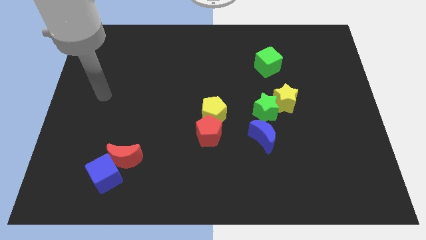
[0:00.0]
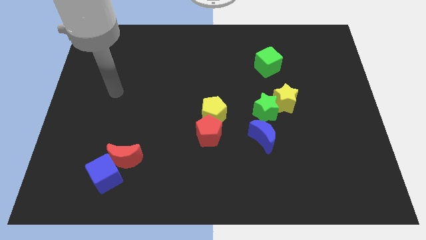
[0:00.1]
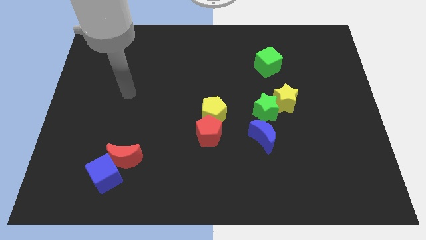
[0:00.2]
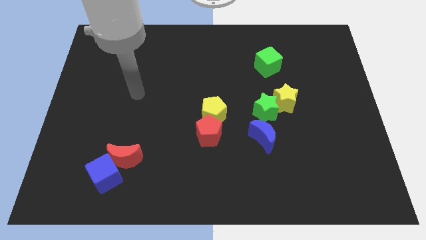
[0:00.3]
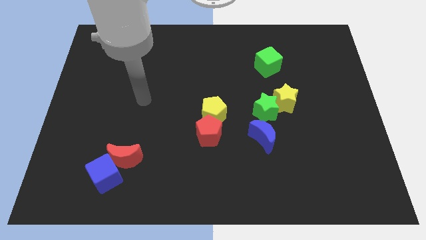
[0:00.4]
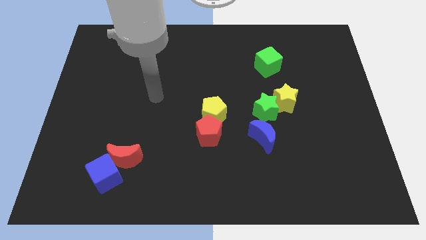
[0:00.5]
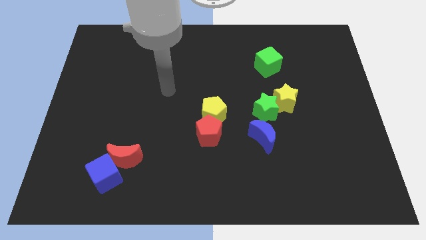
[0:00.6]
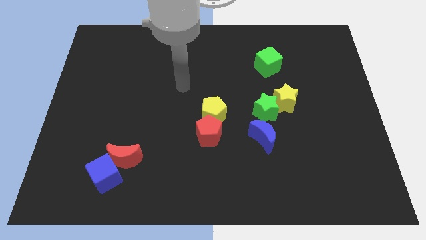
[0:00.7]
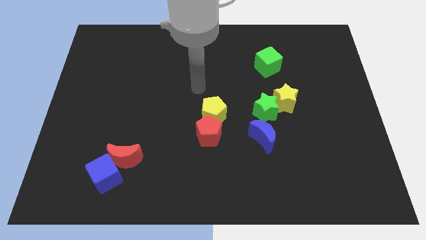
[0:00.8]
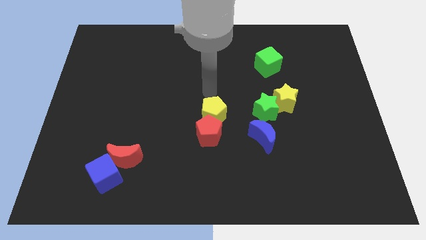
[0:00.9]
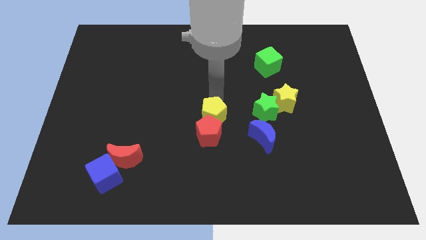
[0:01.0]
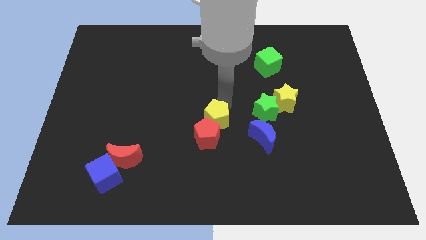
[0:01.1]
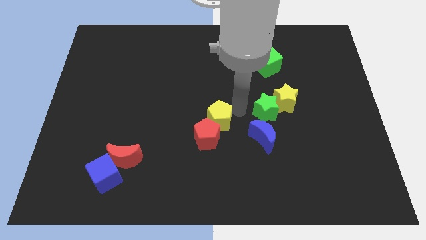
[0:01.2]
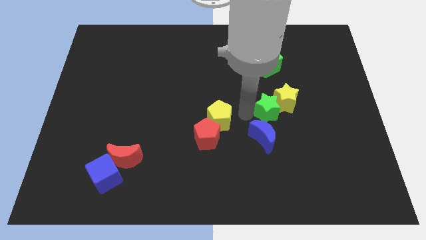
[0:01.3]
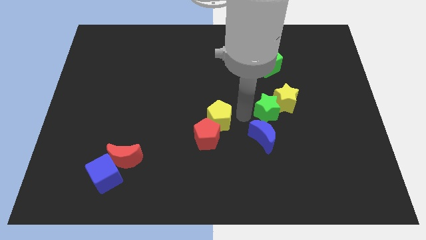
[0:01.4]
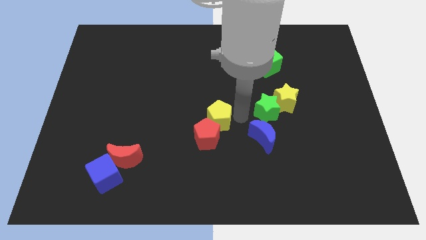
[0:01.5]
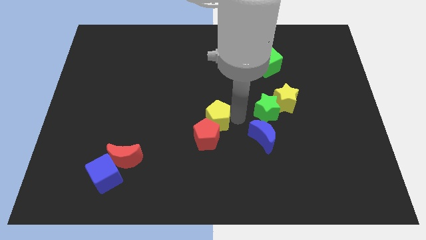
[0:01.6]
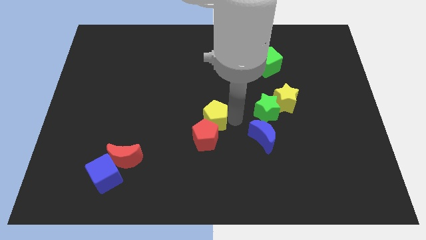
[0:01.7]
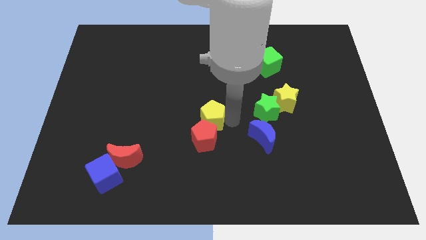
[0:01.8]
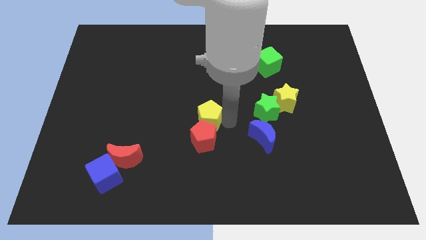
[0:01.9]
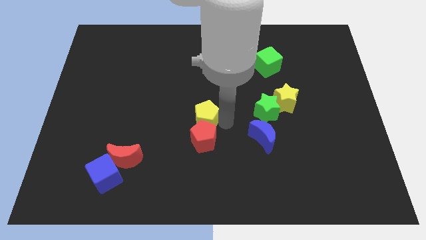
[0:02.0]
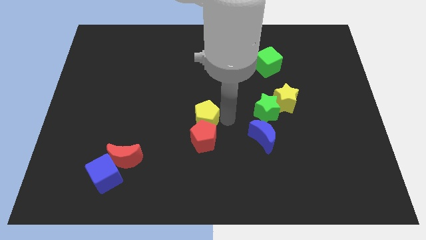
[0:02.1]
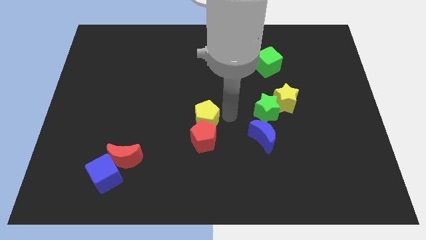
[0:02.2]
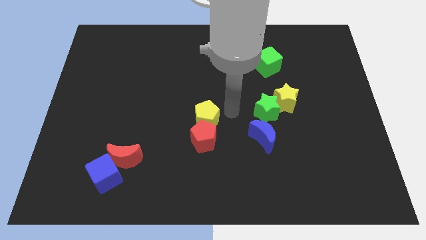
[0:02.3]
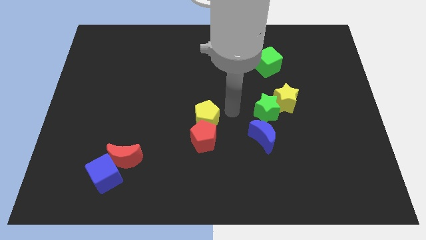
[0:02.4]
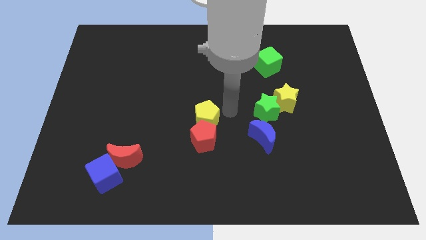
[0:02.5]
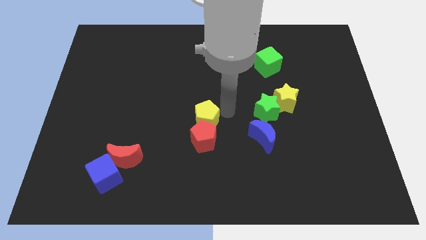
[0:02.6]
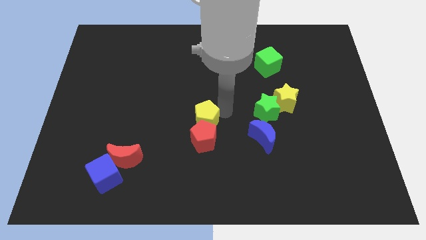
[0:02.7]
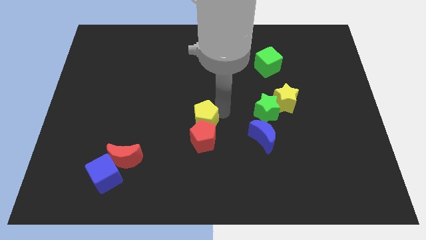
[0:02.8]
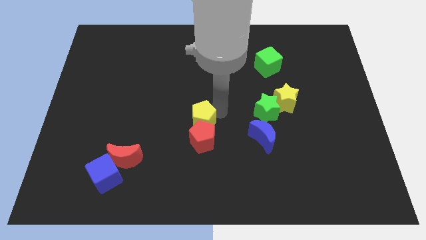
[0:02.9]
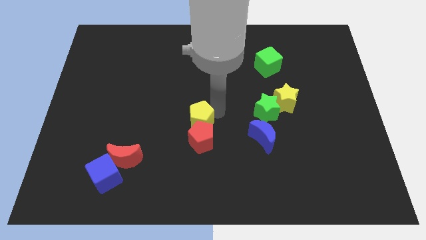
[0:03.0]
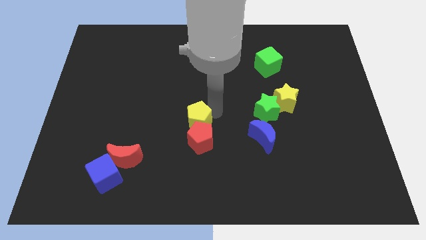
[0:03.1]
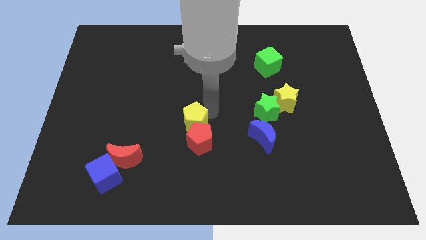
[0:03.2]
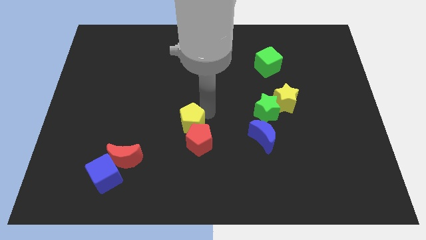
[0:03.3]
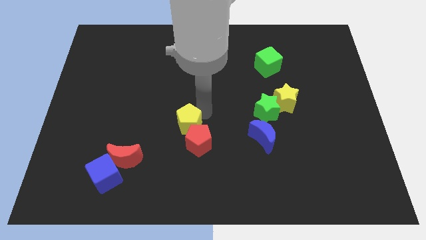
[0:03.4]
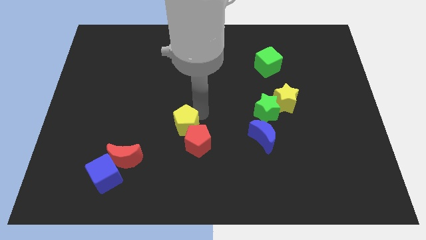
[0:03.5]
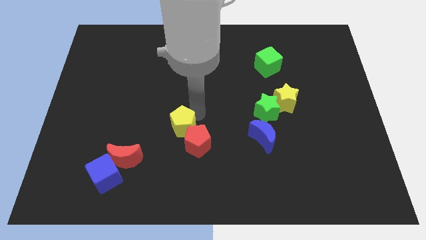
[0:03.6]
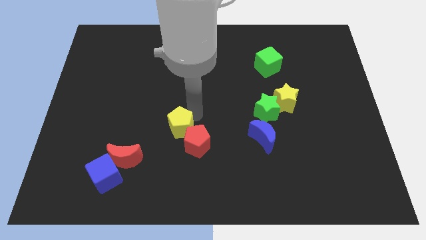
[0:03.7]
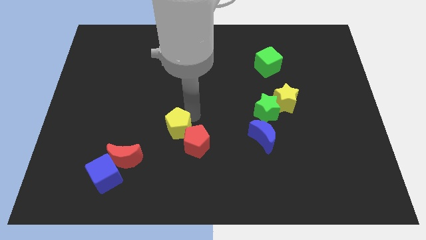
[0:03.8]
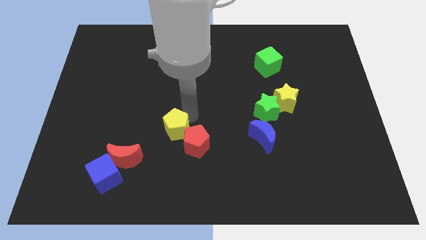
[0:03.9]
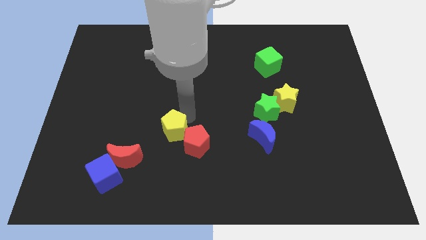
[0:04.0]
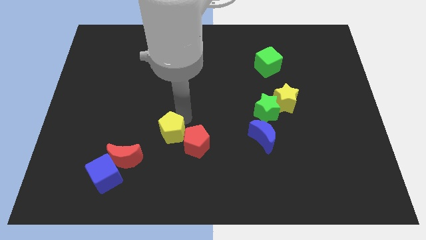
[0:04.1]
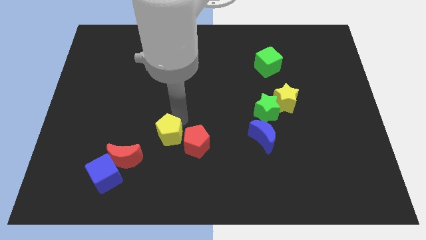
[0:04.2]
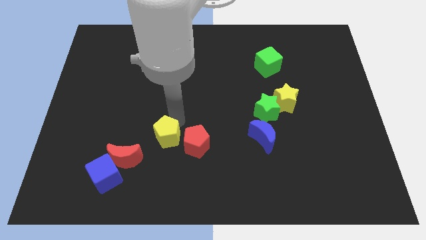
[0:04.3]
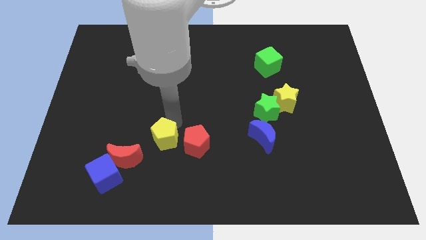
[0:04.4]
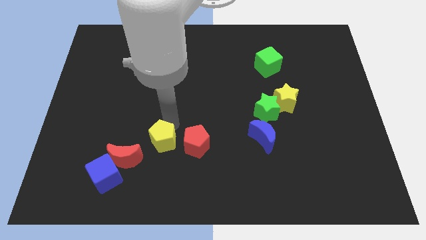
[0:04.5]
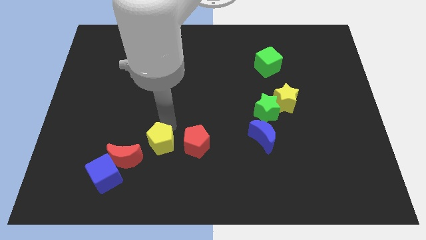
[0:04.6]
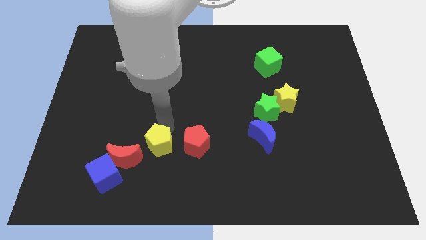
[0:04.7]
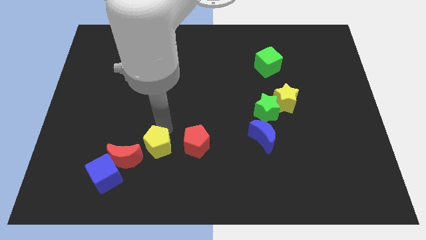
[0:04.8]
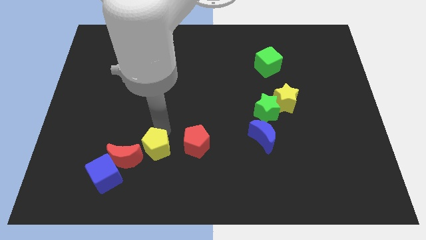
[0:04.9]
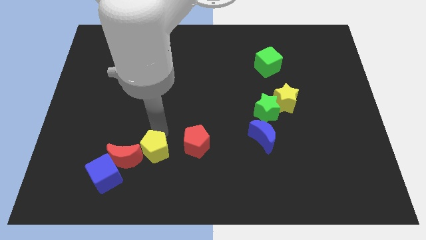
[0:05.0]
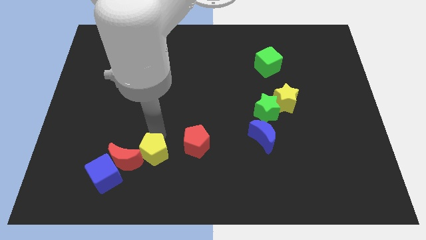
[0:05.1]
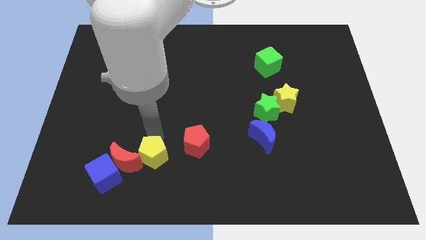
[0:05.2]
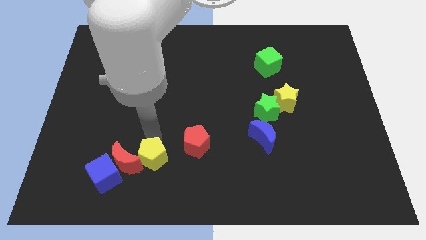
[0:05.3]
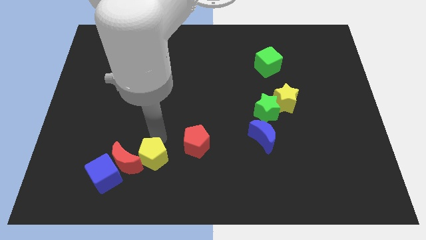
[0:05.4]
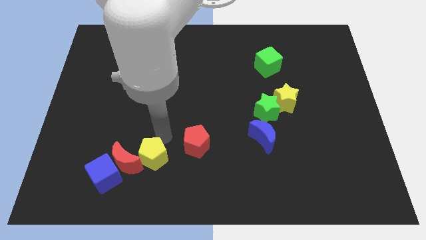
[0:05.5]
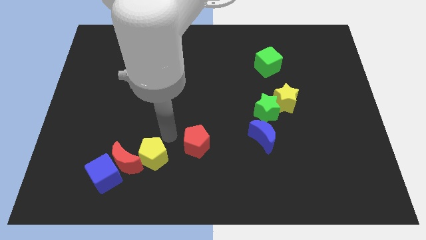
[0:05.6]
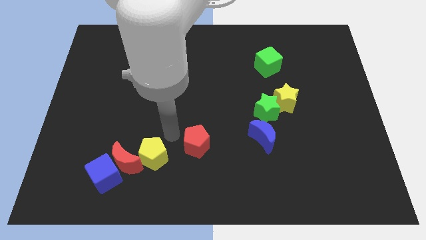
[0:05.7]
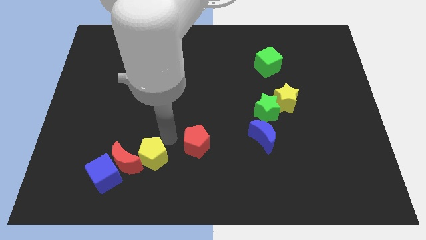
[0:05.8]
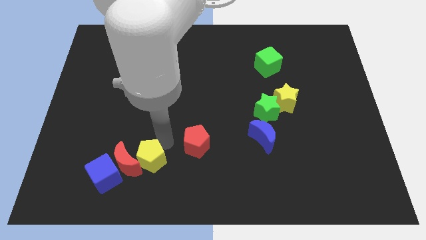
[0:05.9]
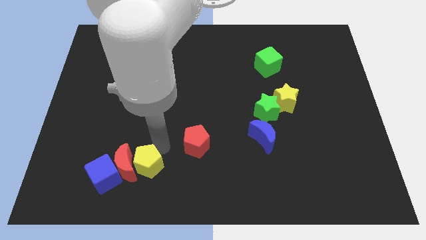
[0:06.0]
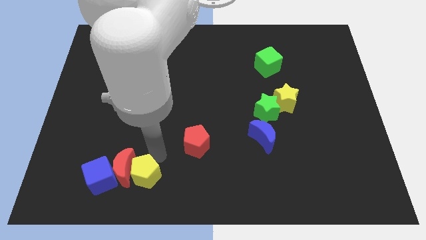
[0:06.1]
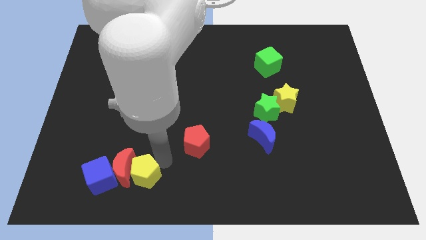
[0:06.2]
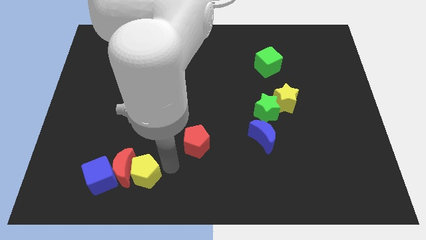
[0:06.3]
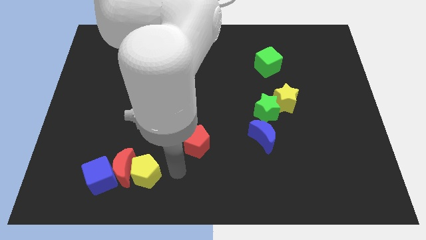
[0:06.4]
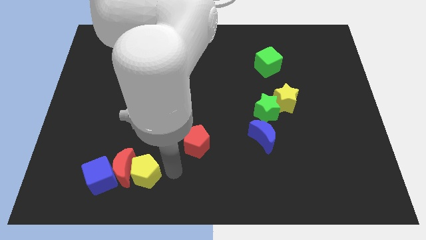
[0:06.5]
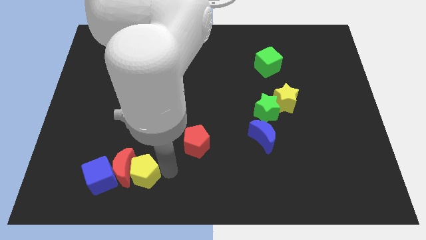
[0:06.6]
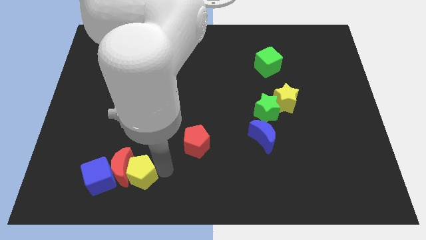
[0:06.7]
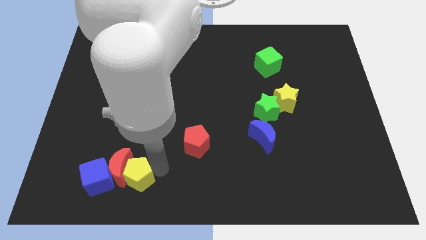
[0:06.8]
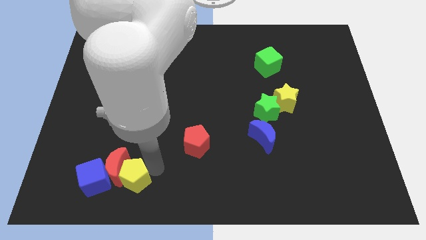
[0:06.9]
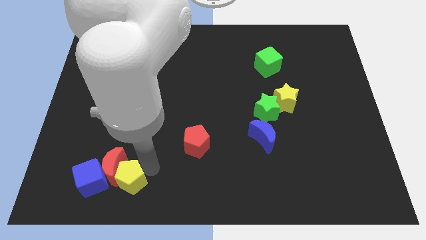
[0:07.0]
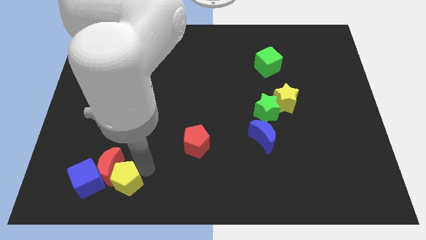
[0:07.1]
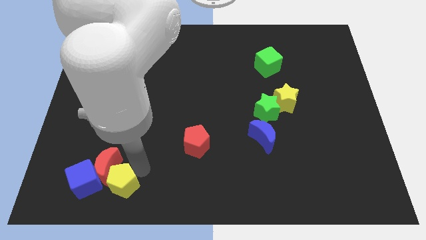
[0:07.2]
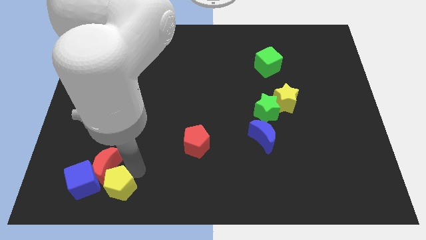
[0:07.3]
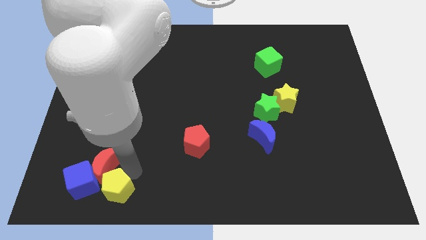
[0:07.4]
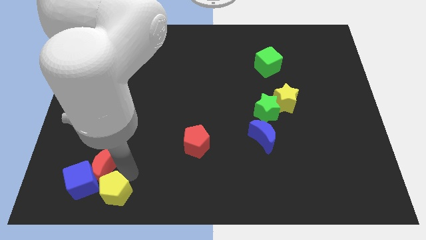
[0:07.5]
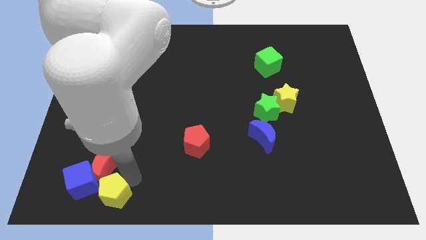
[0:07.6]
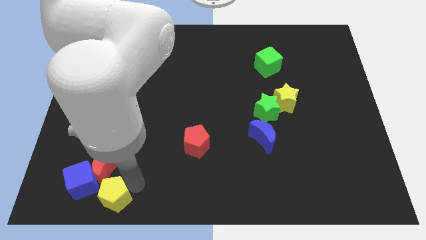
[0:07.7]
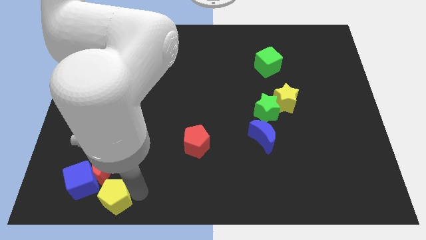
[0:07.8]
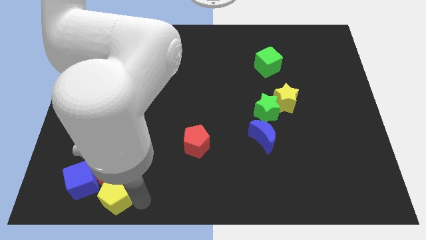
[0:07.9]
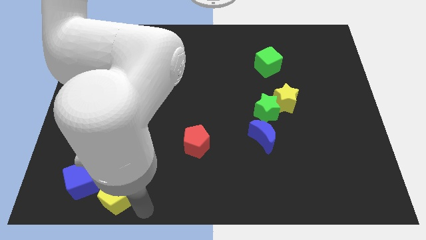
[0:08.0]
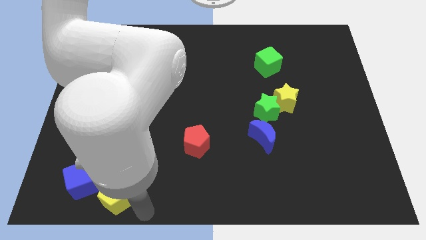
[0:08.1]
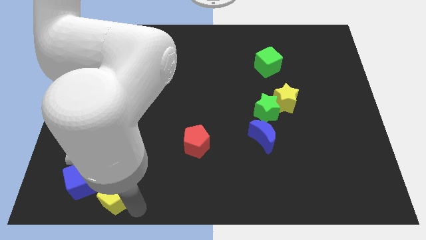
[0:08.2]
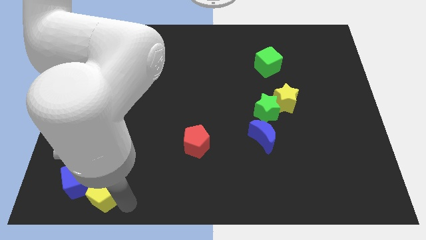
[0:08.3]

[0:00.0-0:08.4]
slide the yellow pentagon next to the blue cube
